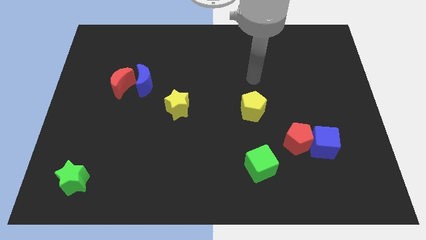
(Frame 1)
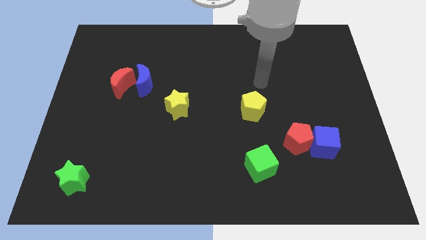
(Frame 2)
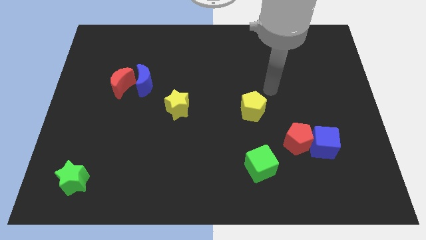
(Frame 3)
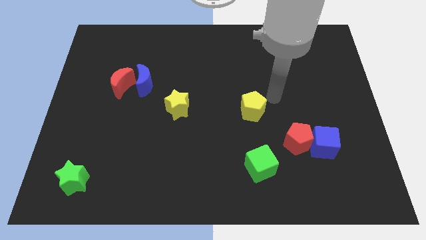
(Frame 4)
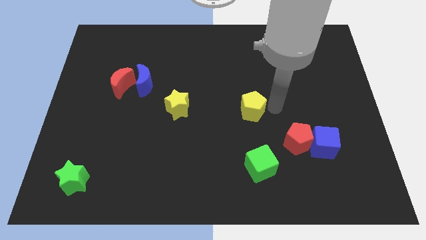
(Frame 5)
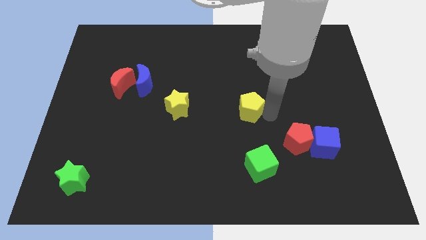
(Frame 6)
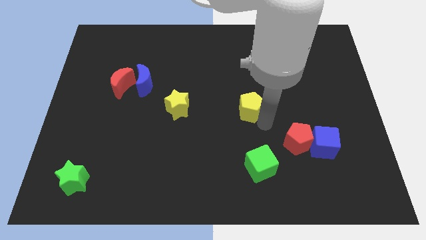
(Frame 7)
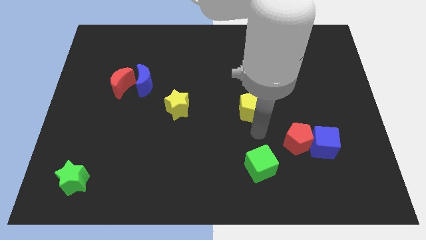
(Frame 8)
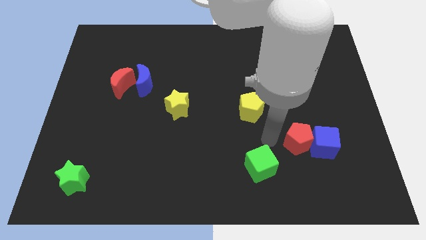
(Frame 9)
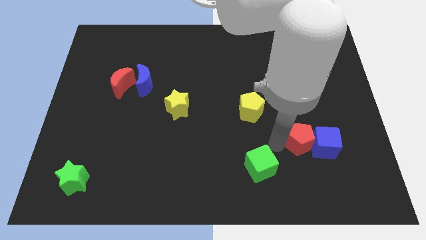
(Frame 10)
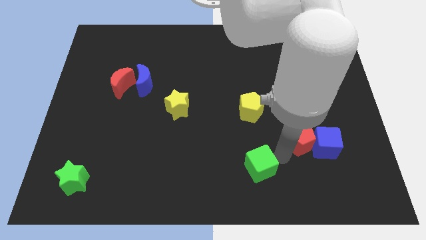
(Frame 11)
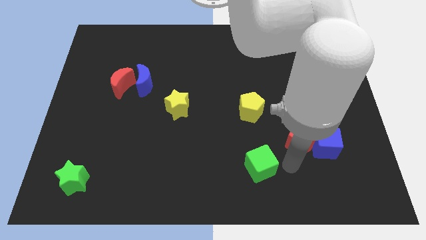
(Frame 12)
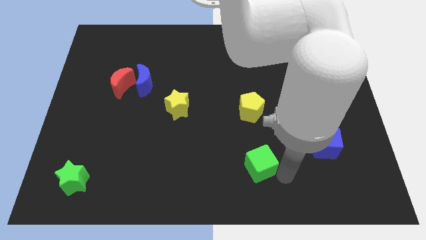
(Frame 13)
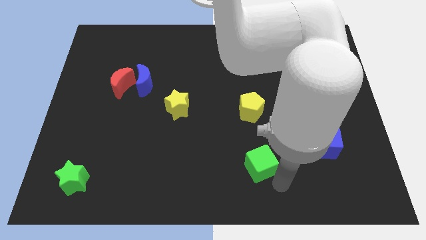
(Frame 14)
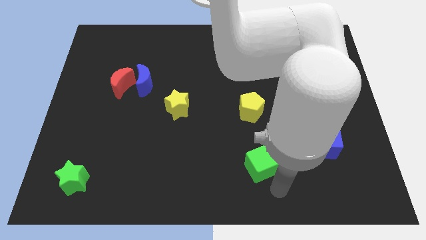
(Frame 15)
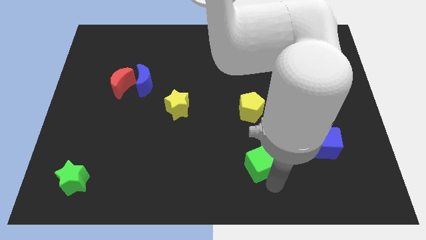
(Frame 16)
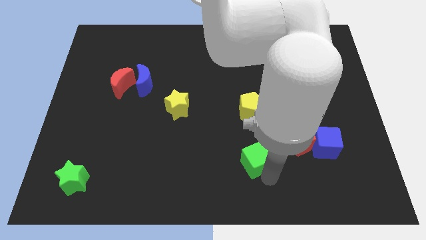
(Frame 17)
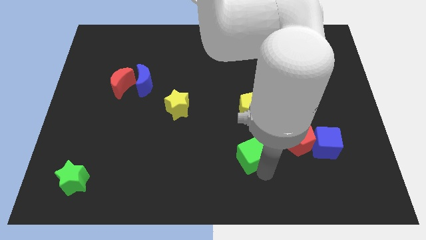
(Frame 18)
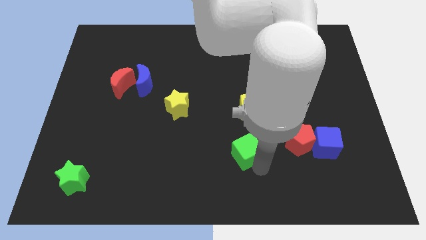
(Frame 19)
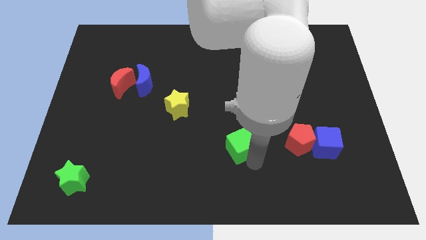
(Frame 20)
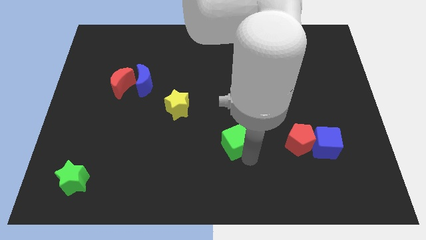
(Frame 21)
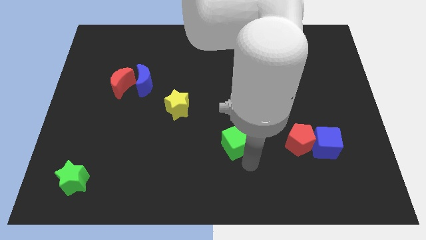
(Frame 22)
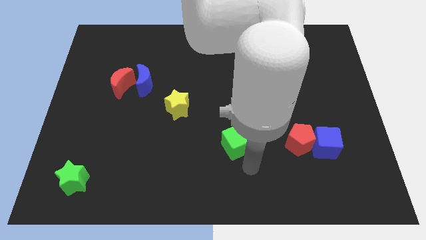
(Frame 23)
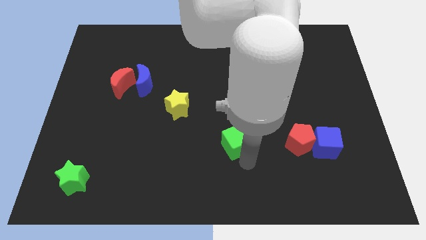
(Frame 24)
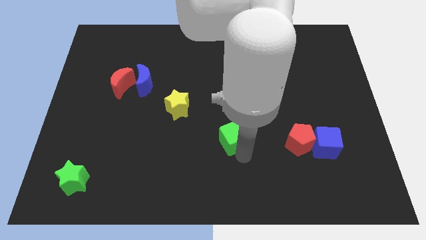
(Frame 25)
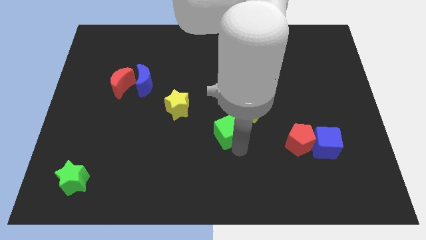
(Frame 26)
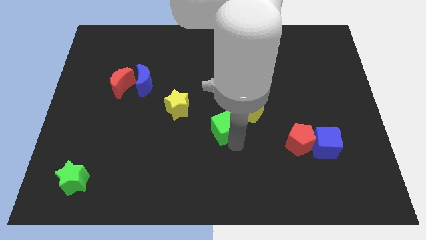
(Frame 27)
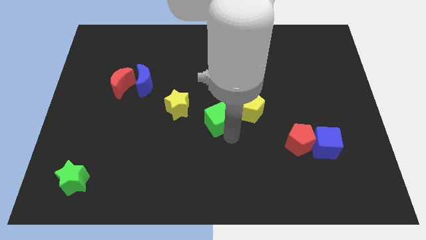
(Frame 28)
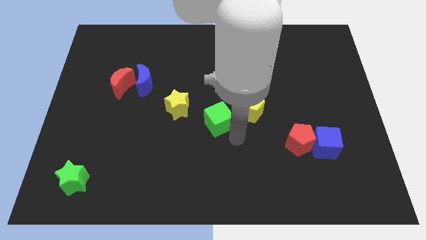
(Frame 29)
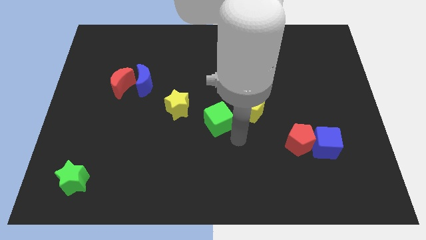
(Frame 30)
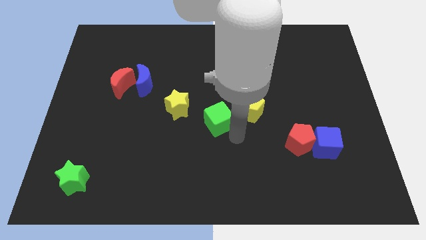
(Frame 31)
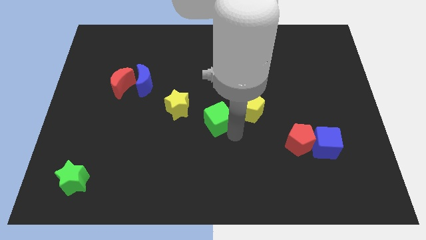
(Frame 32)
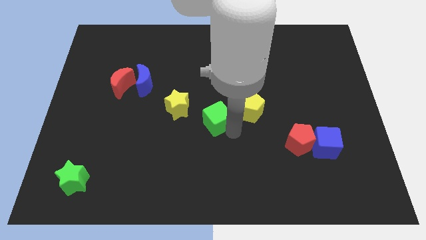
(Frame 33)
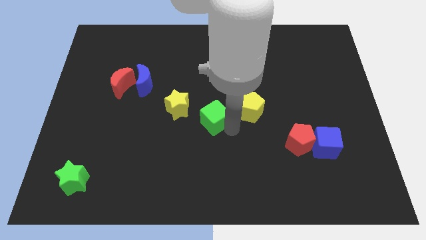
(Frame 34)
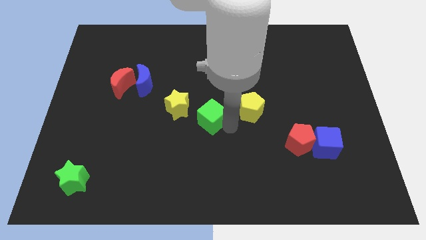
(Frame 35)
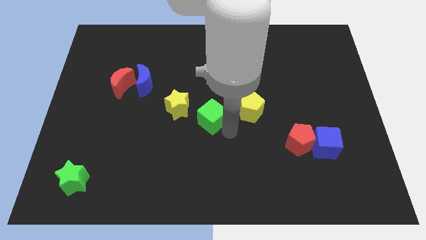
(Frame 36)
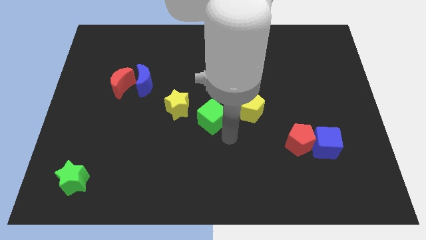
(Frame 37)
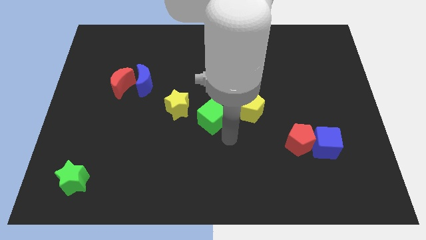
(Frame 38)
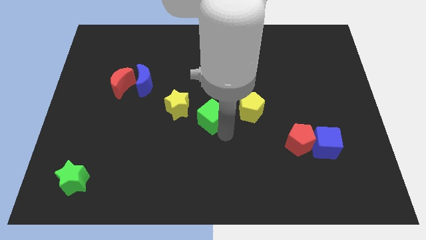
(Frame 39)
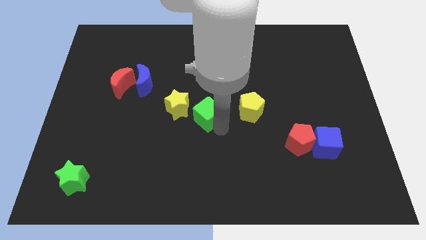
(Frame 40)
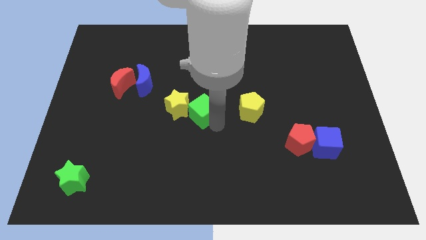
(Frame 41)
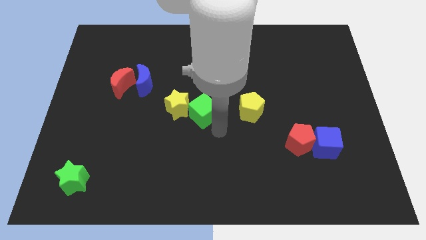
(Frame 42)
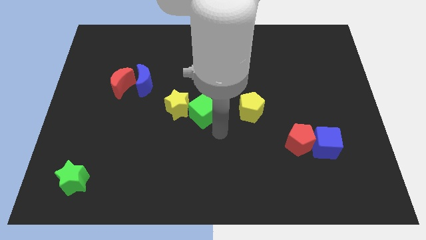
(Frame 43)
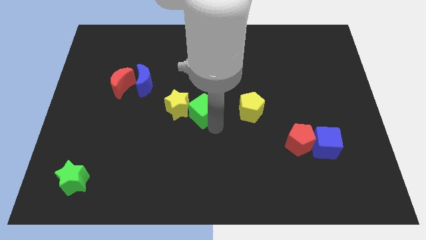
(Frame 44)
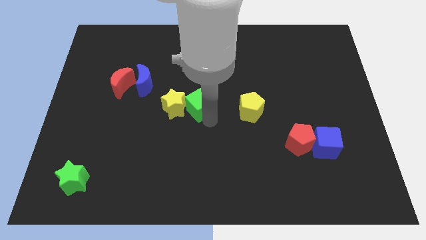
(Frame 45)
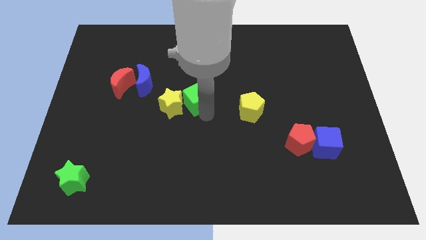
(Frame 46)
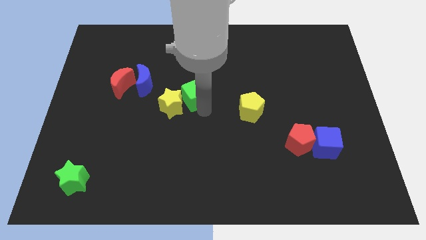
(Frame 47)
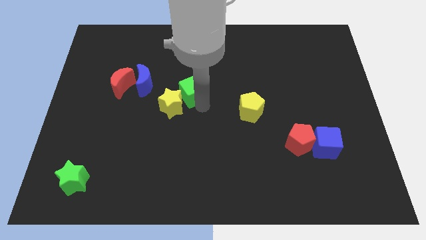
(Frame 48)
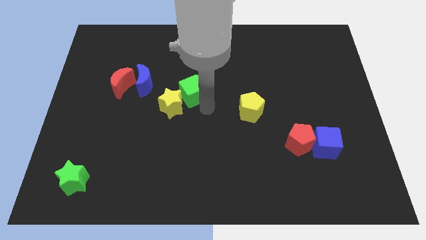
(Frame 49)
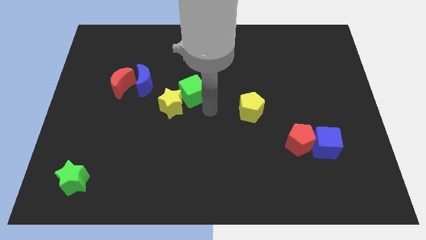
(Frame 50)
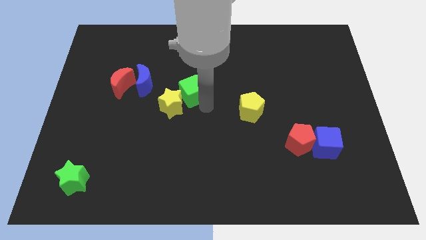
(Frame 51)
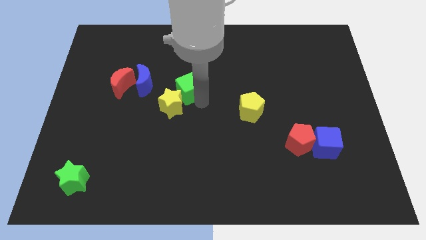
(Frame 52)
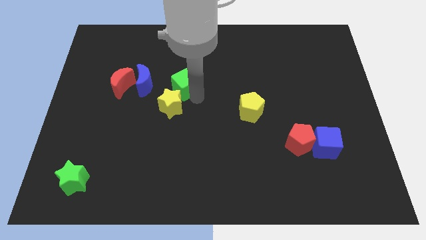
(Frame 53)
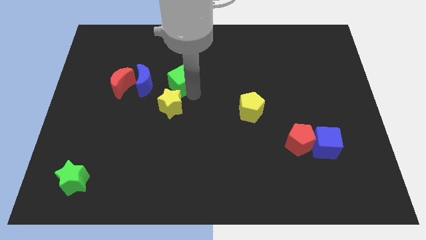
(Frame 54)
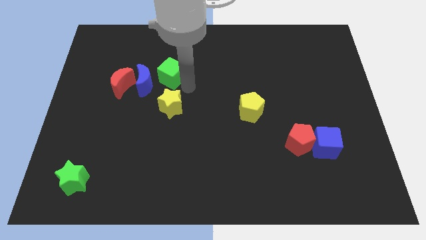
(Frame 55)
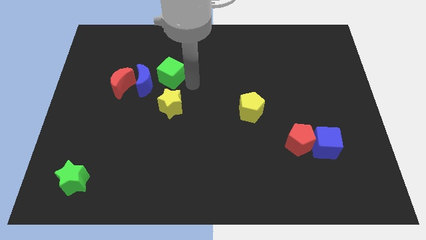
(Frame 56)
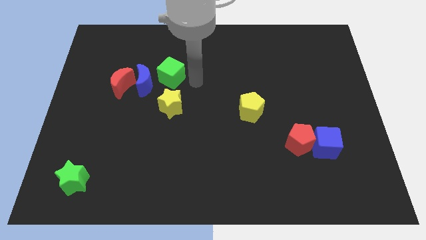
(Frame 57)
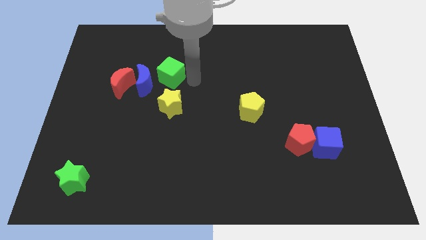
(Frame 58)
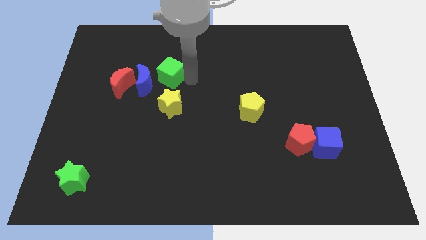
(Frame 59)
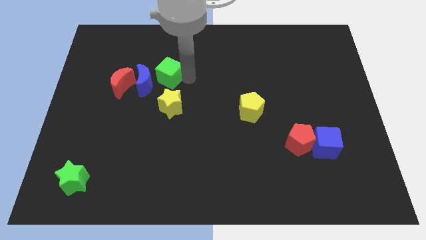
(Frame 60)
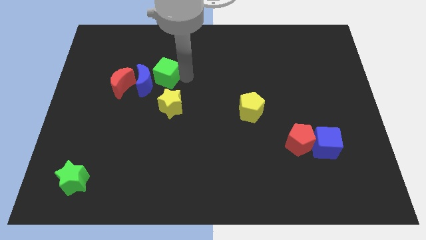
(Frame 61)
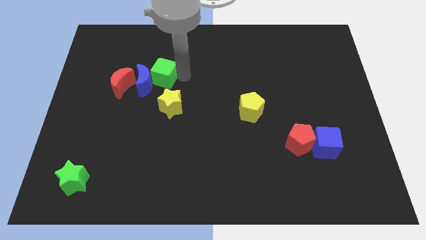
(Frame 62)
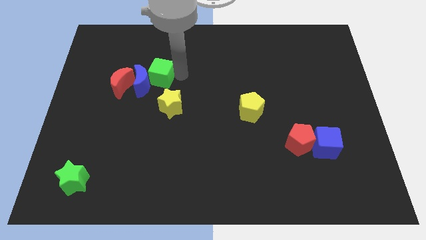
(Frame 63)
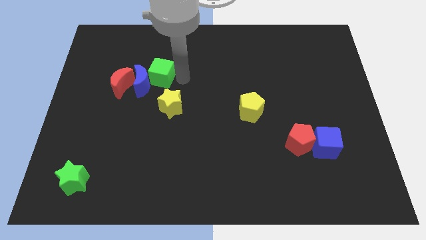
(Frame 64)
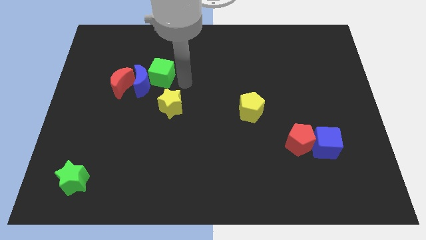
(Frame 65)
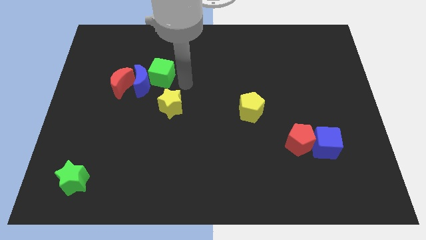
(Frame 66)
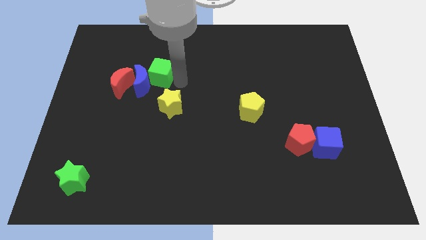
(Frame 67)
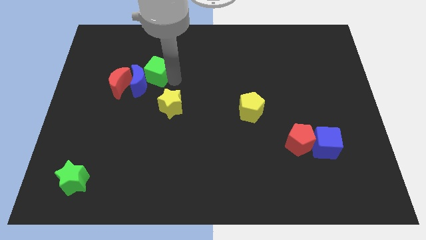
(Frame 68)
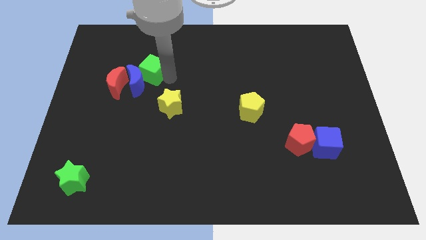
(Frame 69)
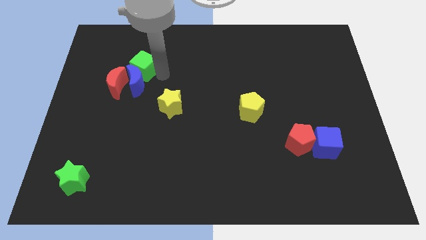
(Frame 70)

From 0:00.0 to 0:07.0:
push the green cube to the top left of the blue moon
